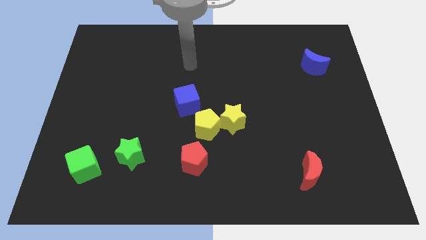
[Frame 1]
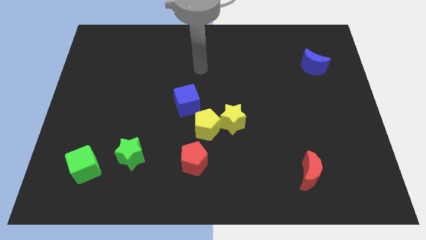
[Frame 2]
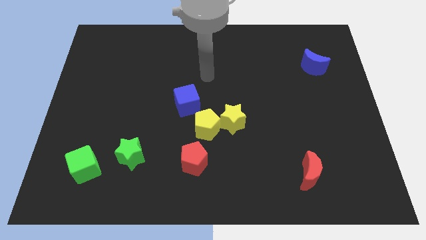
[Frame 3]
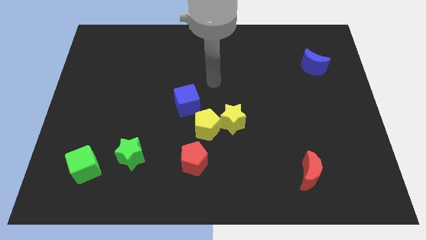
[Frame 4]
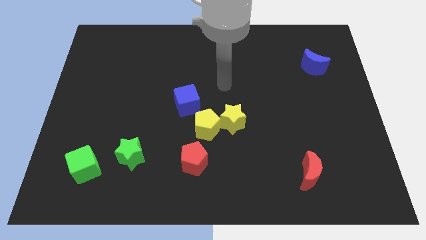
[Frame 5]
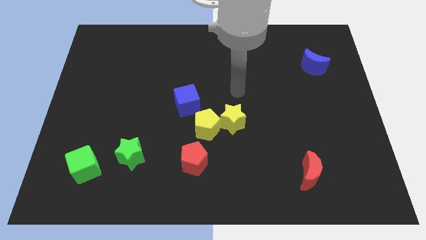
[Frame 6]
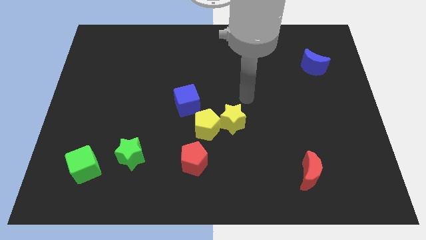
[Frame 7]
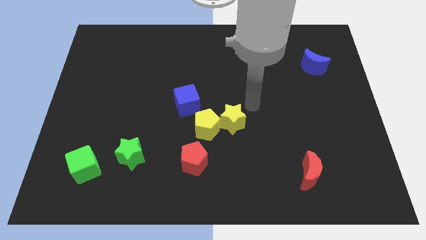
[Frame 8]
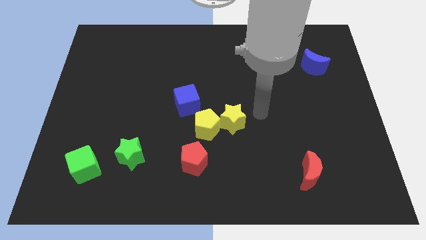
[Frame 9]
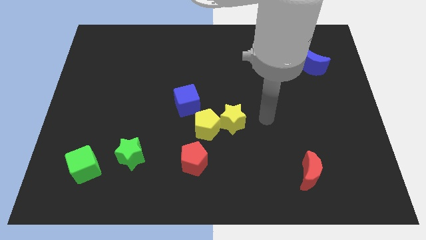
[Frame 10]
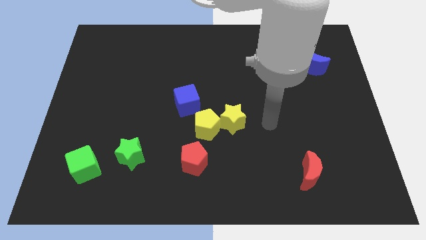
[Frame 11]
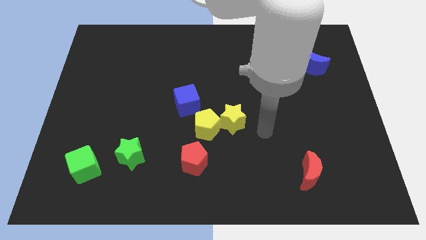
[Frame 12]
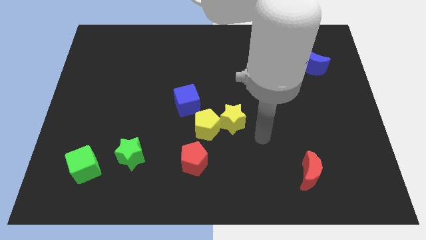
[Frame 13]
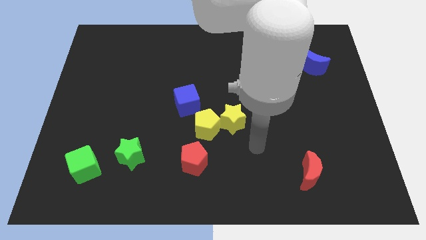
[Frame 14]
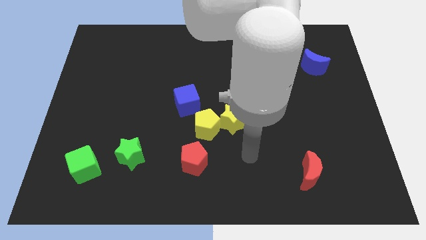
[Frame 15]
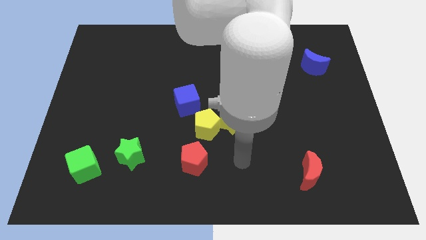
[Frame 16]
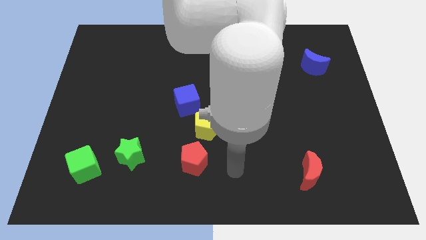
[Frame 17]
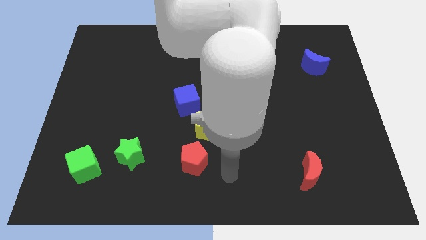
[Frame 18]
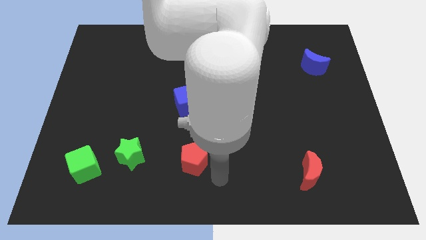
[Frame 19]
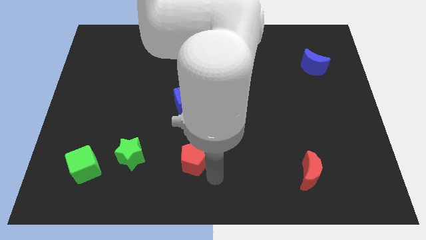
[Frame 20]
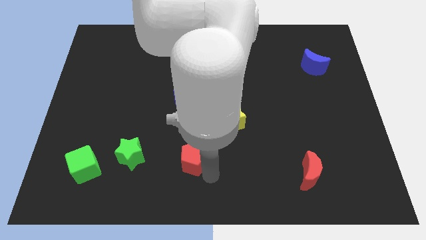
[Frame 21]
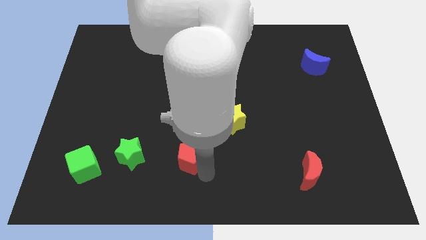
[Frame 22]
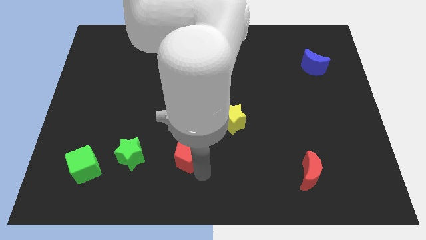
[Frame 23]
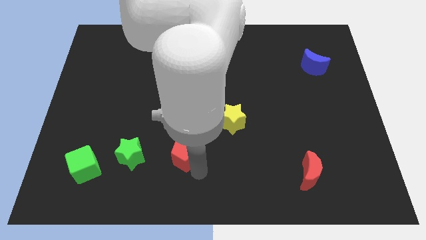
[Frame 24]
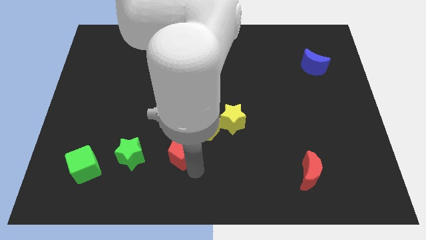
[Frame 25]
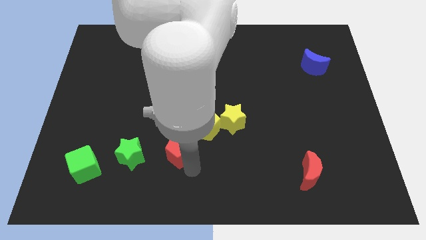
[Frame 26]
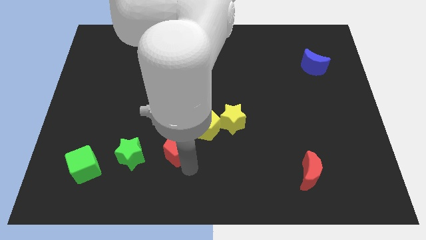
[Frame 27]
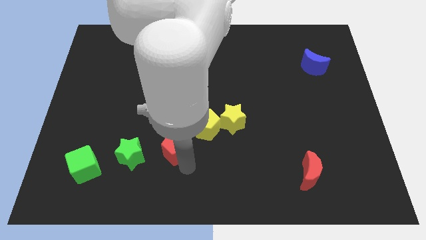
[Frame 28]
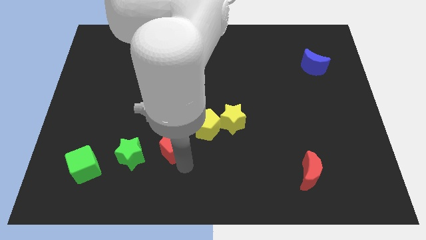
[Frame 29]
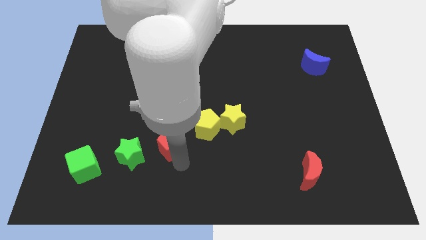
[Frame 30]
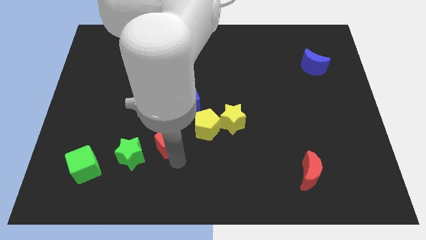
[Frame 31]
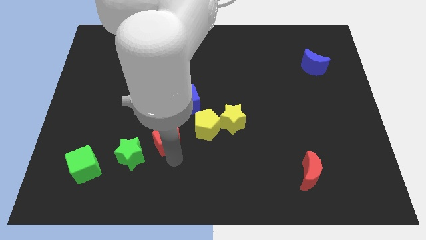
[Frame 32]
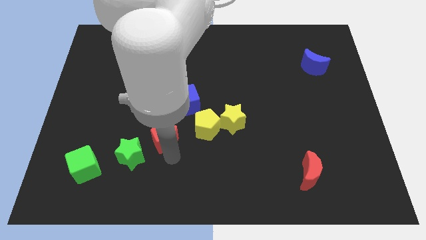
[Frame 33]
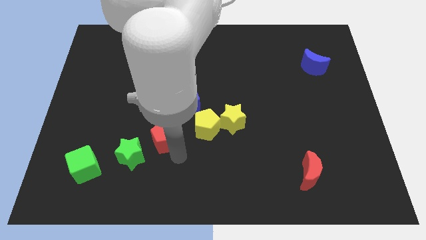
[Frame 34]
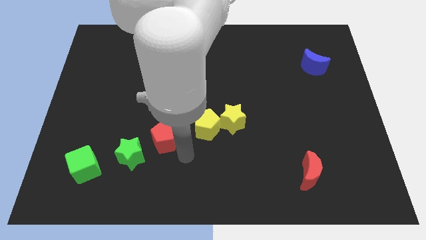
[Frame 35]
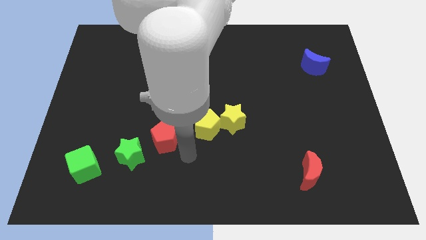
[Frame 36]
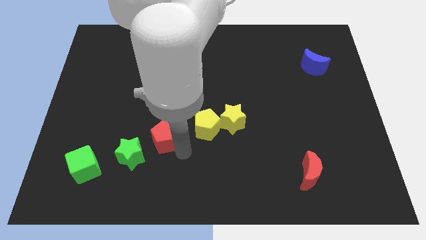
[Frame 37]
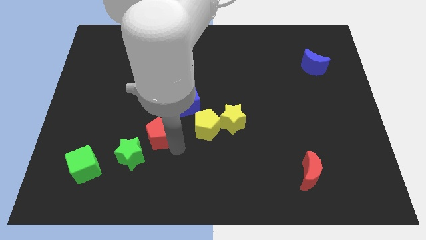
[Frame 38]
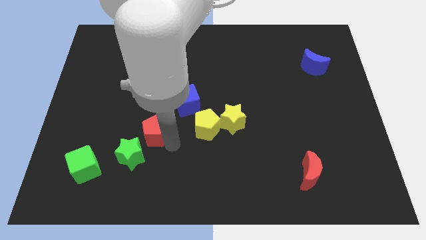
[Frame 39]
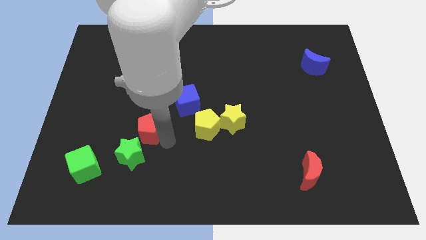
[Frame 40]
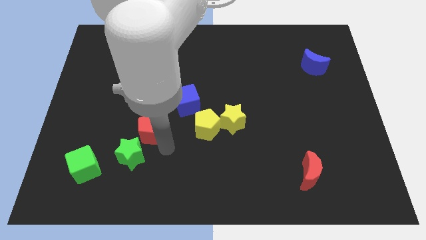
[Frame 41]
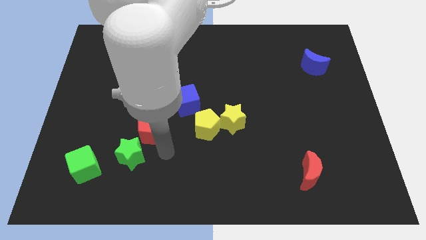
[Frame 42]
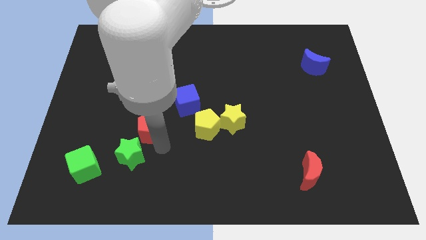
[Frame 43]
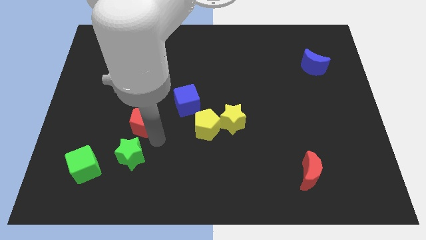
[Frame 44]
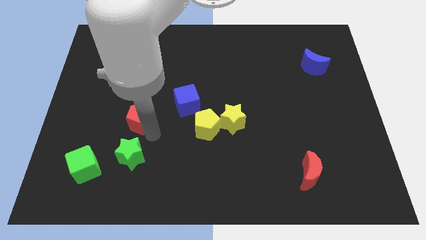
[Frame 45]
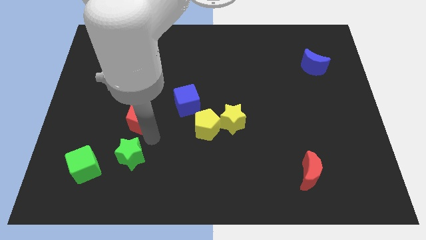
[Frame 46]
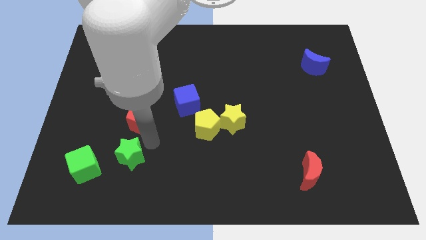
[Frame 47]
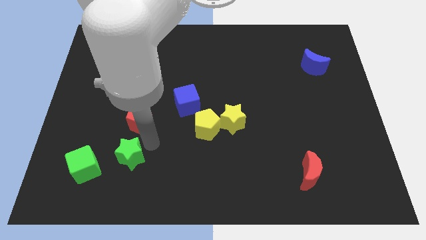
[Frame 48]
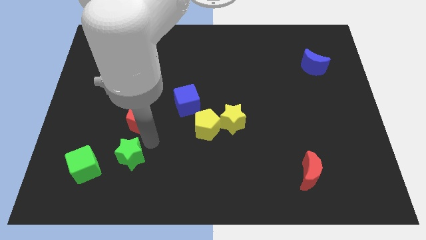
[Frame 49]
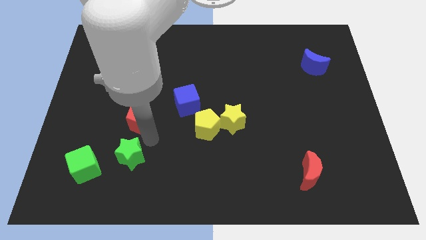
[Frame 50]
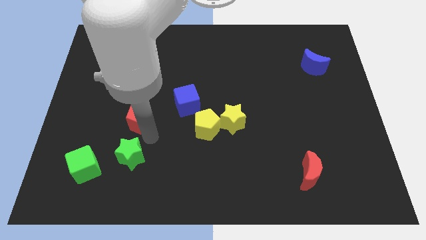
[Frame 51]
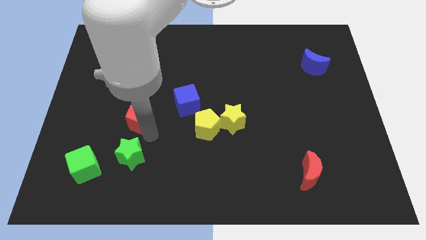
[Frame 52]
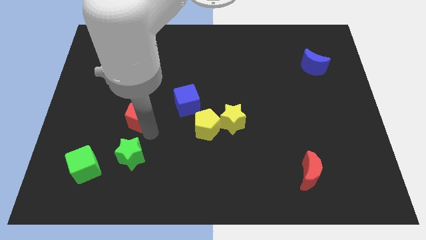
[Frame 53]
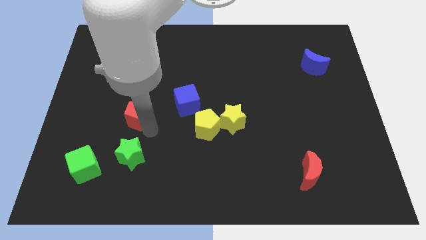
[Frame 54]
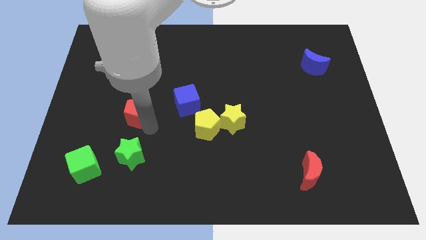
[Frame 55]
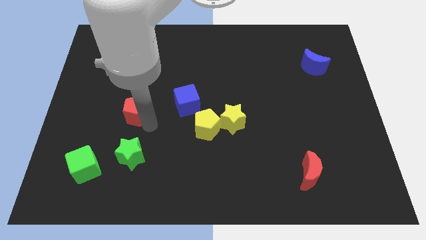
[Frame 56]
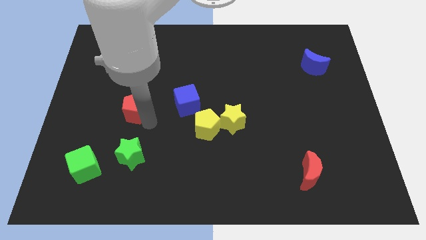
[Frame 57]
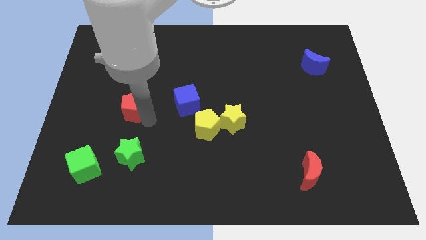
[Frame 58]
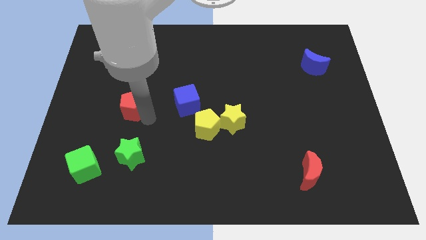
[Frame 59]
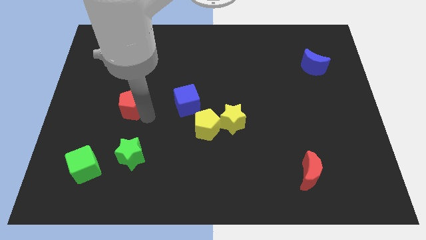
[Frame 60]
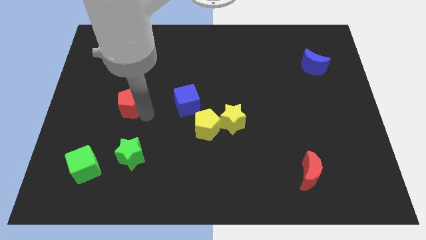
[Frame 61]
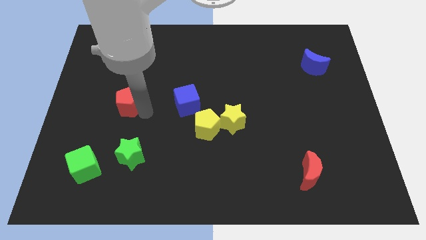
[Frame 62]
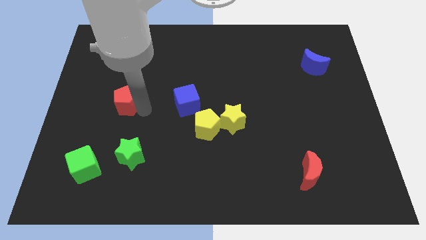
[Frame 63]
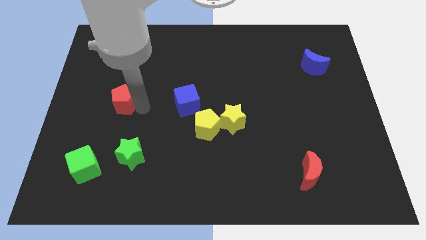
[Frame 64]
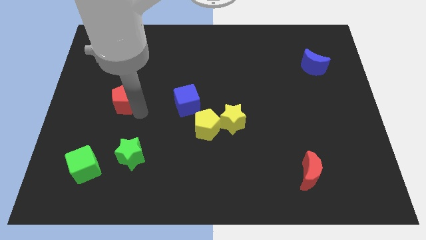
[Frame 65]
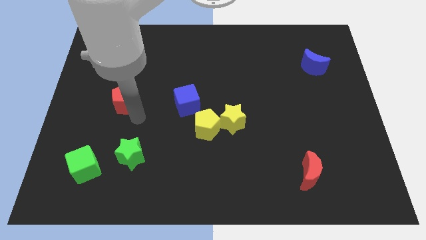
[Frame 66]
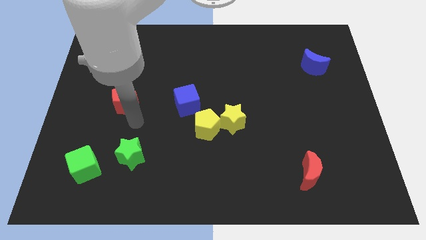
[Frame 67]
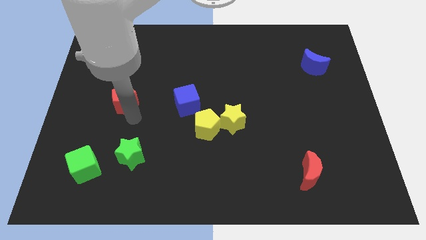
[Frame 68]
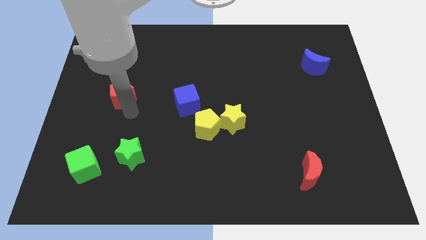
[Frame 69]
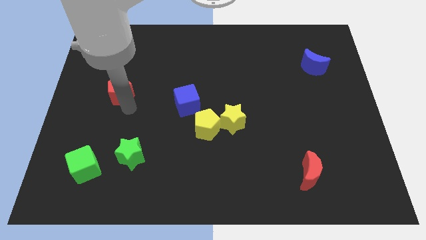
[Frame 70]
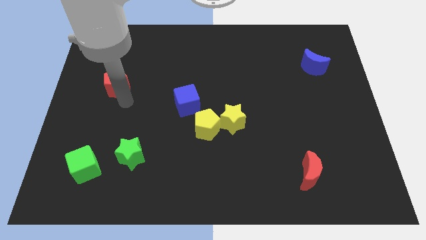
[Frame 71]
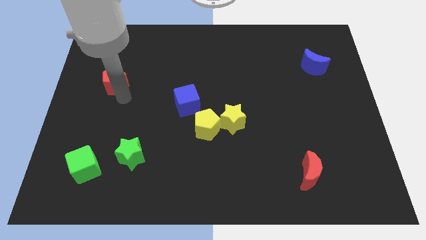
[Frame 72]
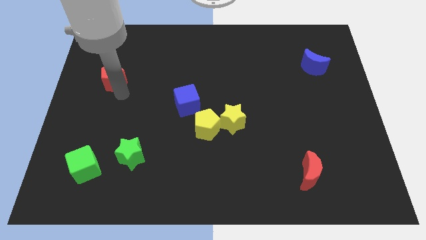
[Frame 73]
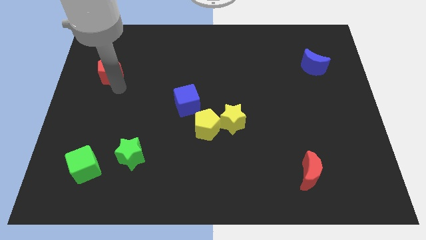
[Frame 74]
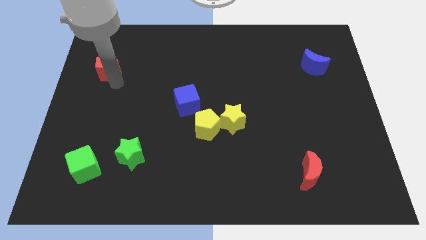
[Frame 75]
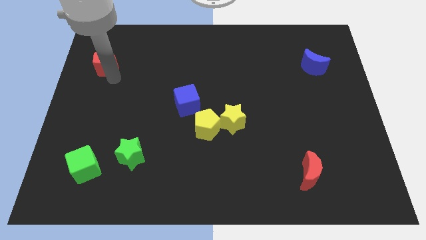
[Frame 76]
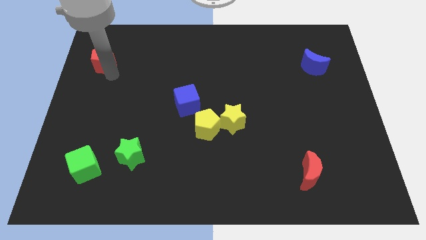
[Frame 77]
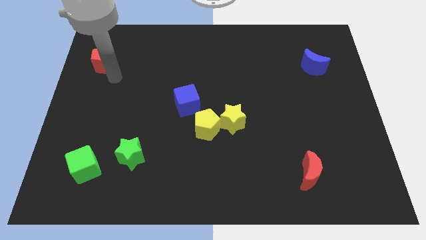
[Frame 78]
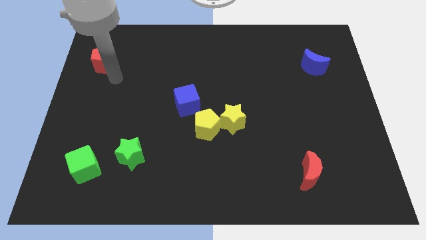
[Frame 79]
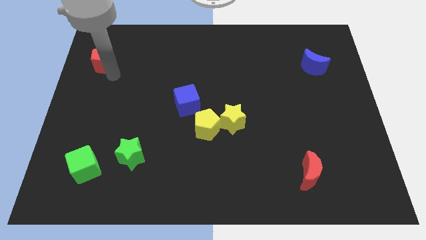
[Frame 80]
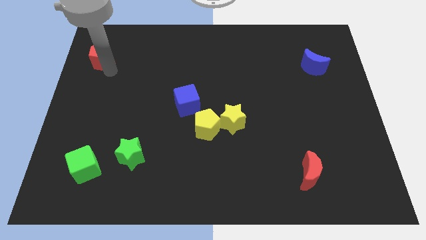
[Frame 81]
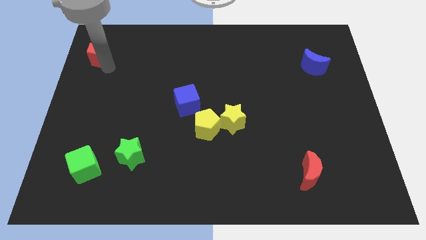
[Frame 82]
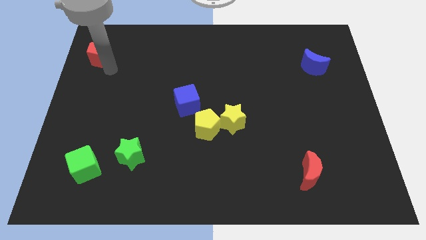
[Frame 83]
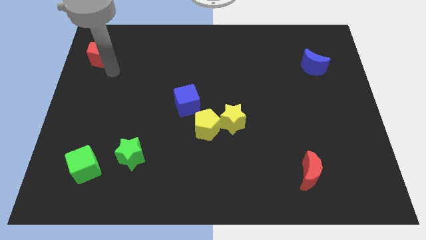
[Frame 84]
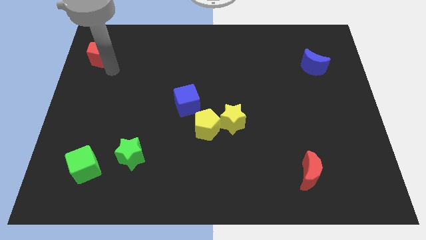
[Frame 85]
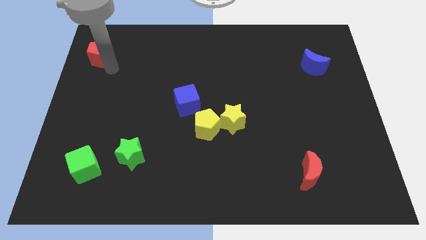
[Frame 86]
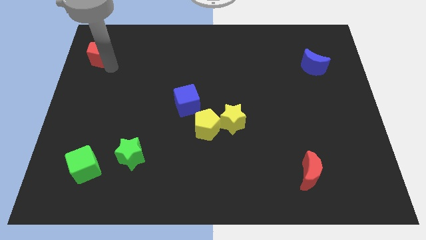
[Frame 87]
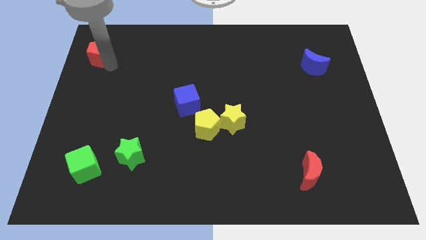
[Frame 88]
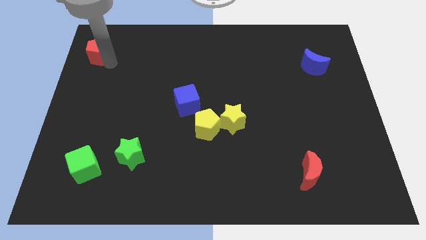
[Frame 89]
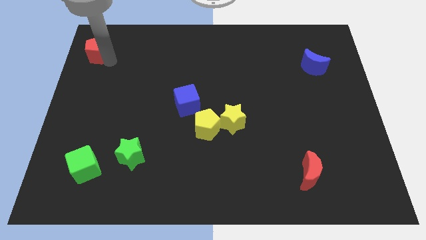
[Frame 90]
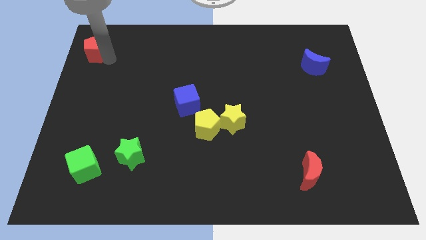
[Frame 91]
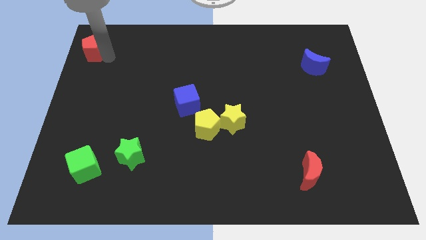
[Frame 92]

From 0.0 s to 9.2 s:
slide the red pentagon to the upper left corner
